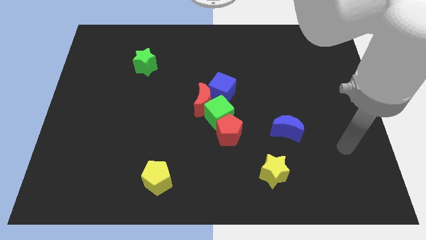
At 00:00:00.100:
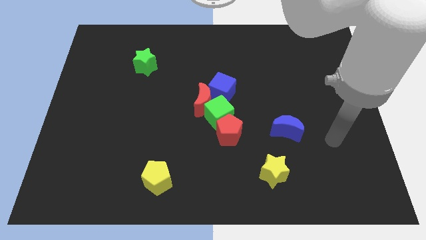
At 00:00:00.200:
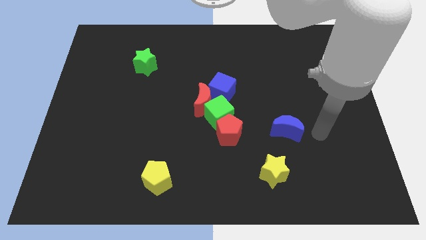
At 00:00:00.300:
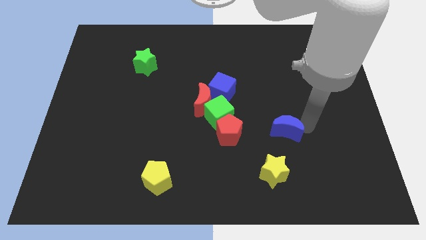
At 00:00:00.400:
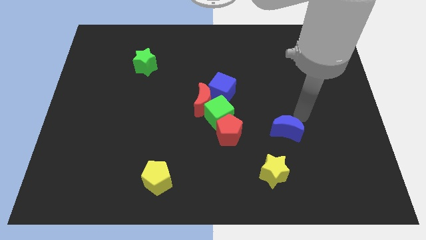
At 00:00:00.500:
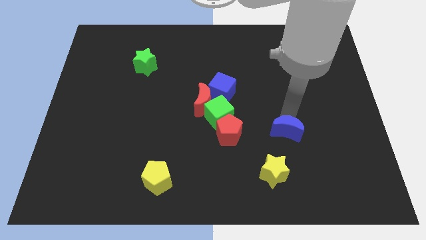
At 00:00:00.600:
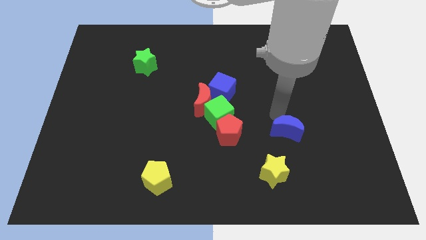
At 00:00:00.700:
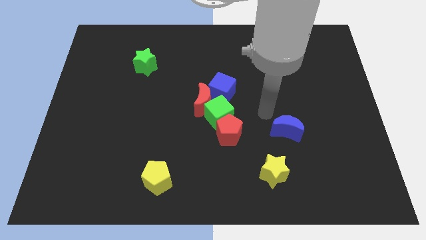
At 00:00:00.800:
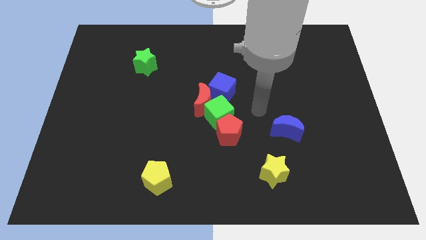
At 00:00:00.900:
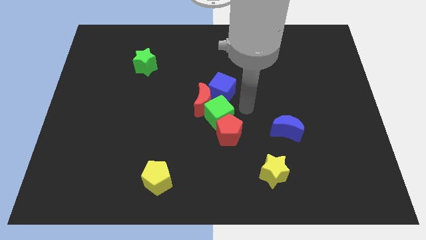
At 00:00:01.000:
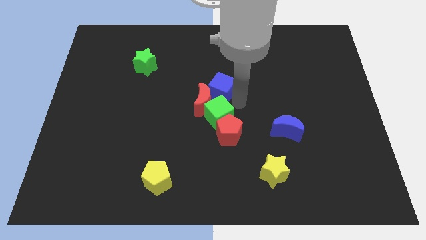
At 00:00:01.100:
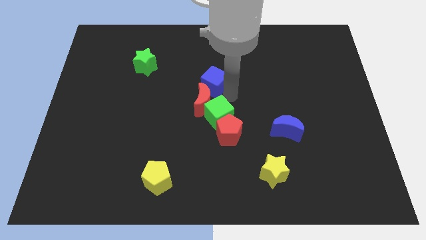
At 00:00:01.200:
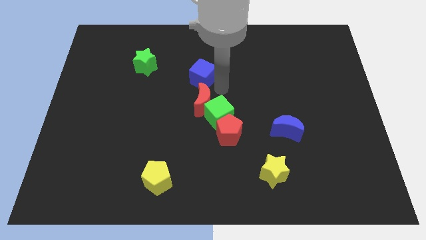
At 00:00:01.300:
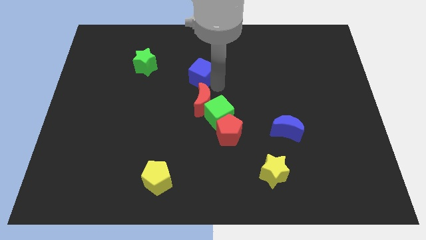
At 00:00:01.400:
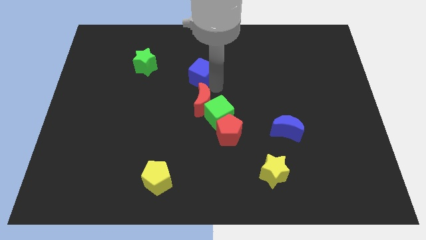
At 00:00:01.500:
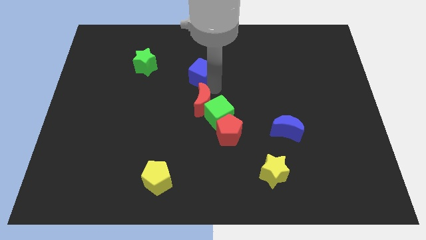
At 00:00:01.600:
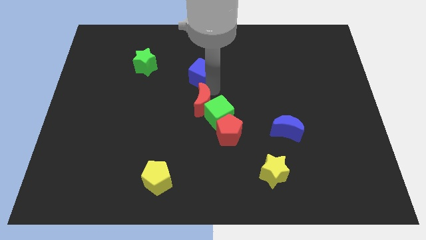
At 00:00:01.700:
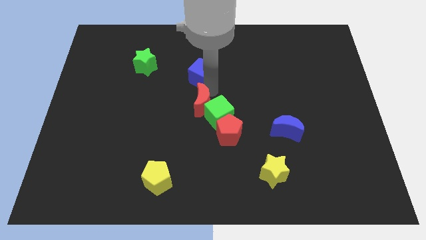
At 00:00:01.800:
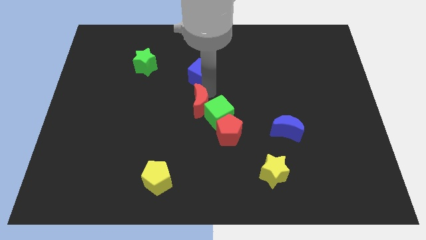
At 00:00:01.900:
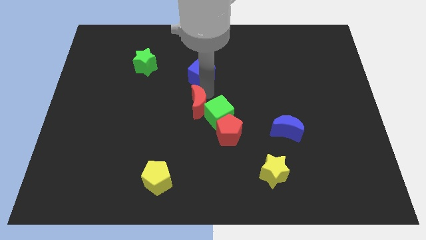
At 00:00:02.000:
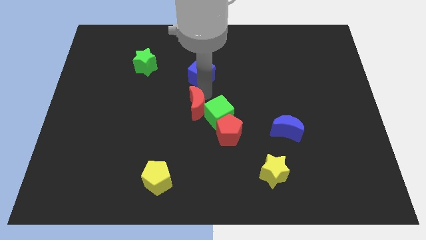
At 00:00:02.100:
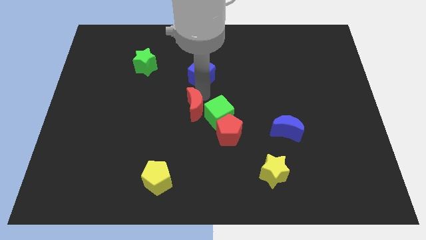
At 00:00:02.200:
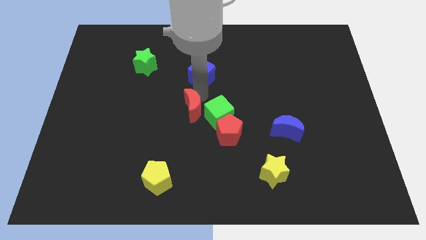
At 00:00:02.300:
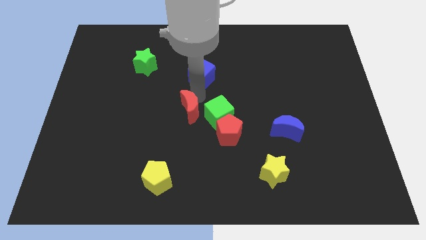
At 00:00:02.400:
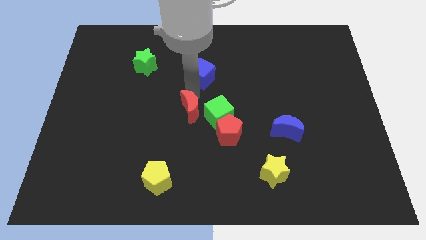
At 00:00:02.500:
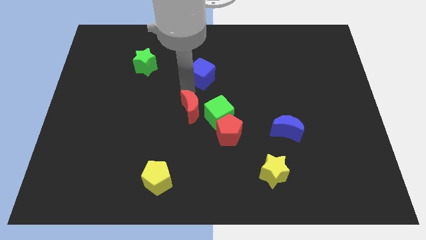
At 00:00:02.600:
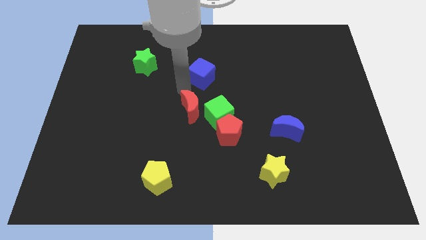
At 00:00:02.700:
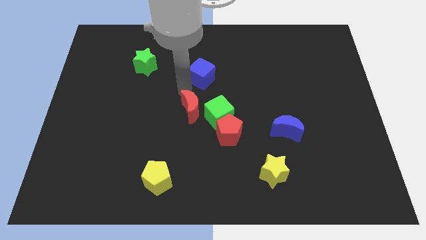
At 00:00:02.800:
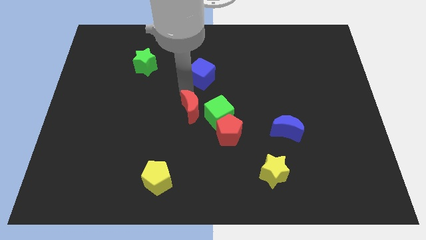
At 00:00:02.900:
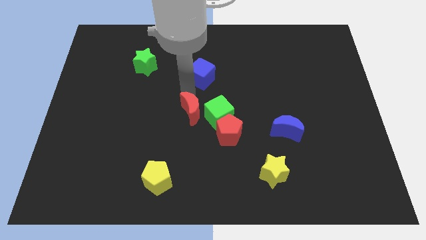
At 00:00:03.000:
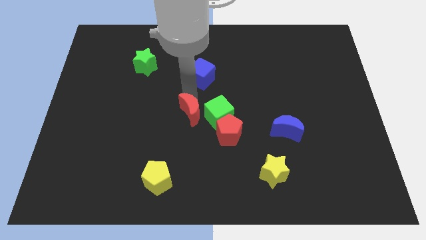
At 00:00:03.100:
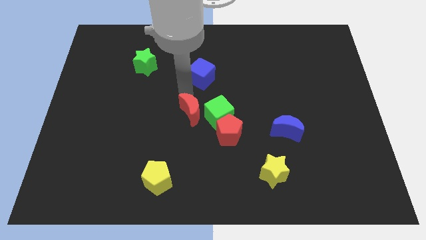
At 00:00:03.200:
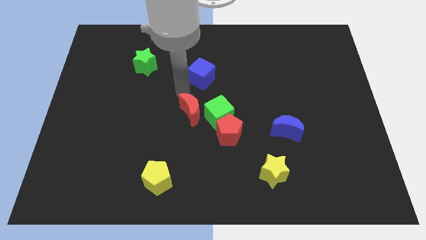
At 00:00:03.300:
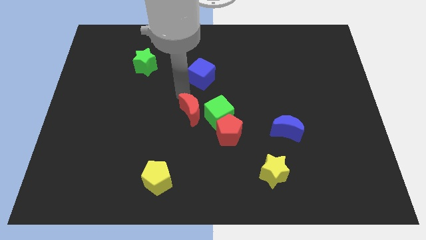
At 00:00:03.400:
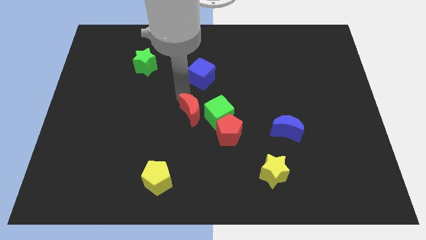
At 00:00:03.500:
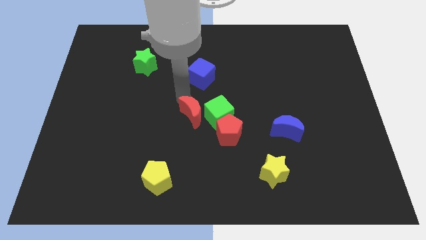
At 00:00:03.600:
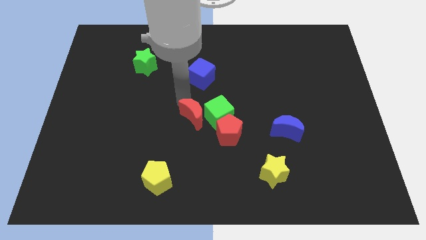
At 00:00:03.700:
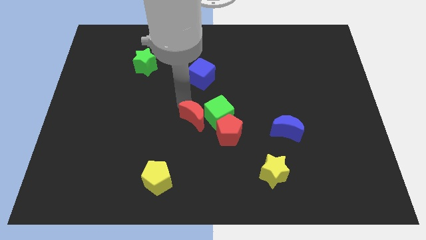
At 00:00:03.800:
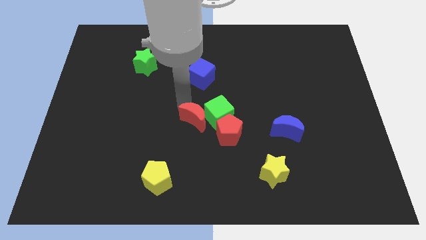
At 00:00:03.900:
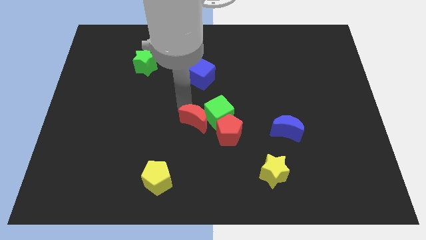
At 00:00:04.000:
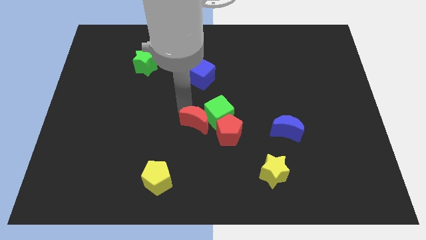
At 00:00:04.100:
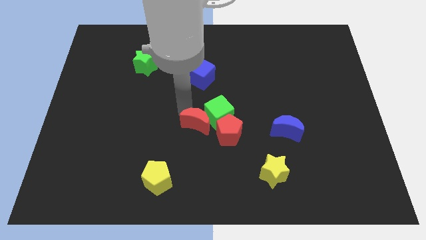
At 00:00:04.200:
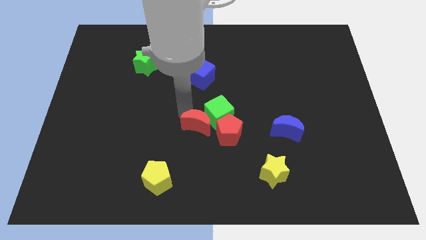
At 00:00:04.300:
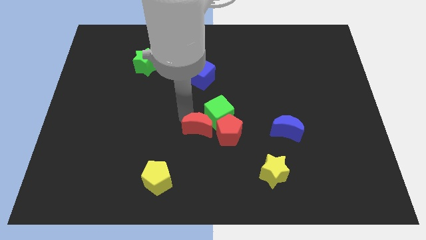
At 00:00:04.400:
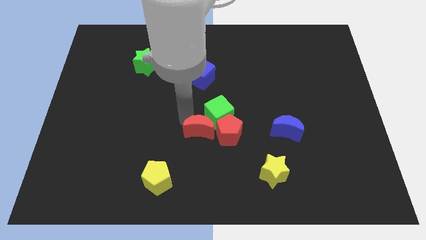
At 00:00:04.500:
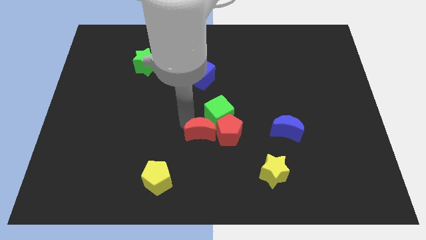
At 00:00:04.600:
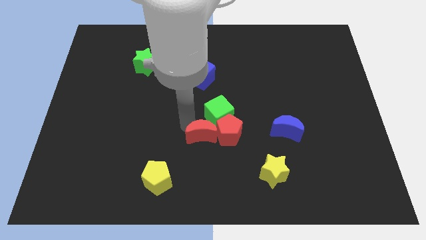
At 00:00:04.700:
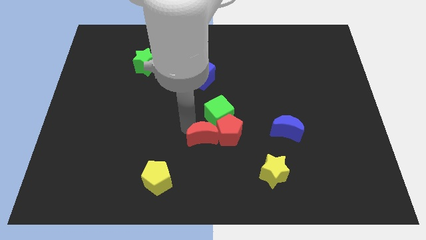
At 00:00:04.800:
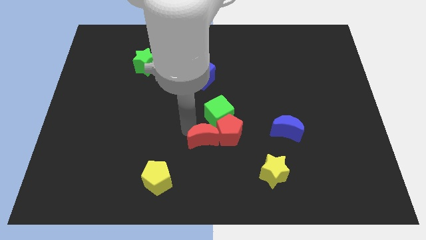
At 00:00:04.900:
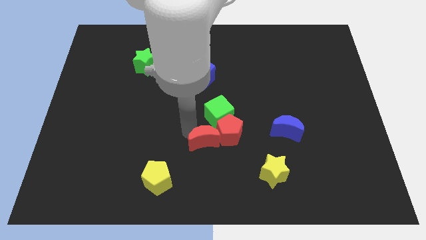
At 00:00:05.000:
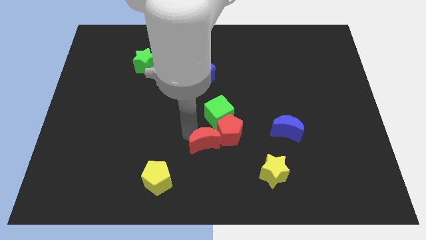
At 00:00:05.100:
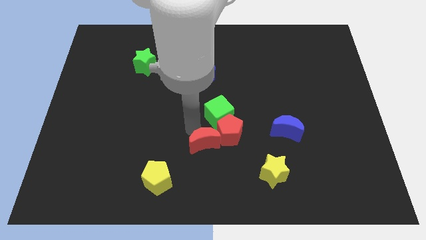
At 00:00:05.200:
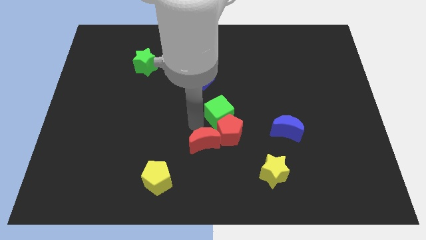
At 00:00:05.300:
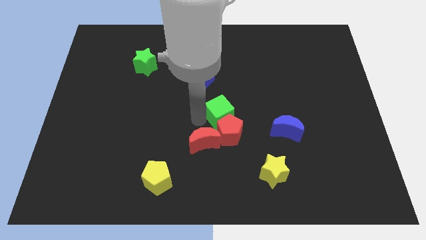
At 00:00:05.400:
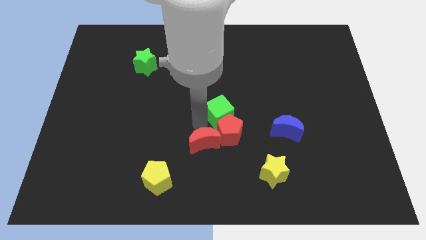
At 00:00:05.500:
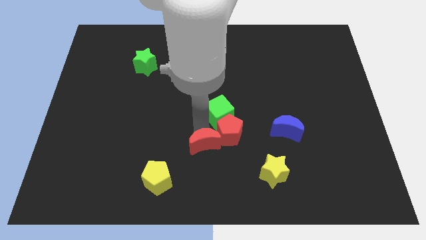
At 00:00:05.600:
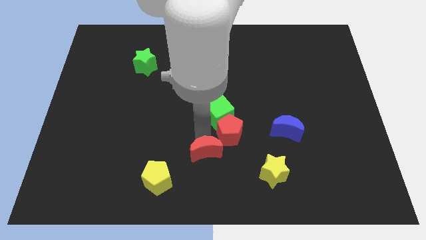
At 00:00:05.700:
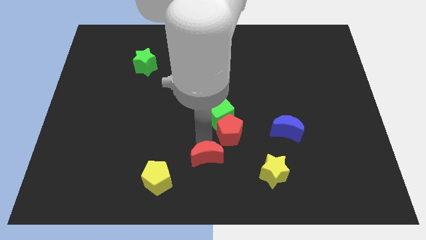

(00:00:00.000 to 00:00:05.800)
slide the red moon to the bottom side

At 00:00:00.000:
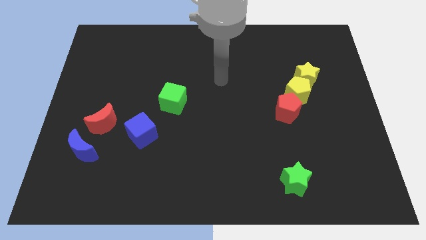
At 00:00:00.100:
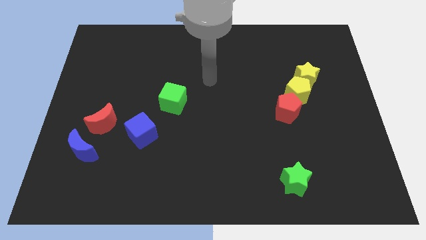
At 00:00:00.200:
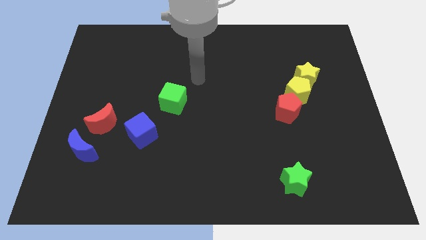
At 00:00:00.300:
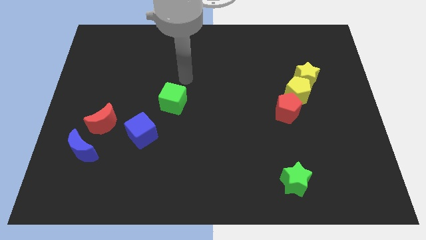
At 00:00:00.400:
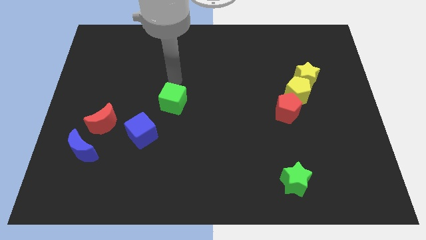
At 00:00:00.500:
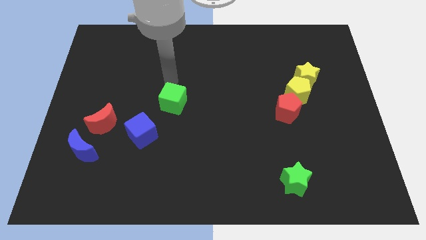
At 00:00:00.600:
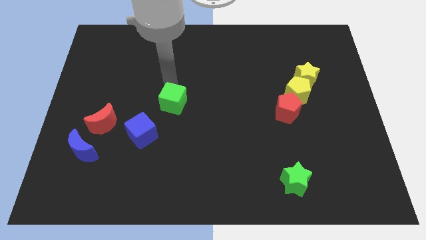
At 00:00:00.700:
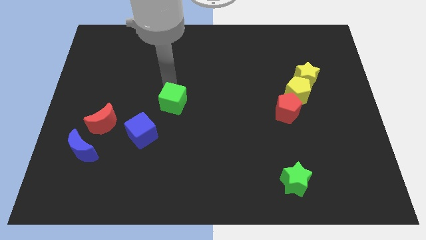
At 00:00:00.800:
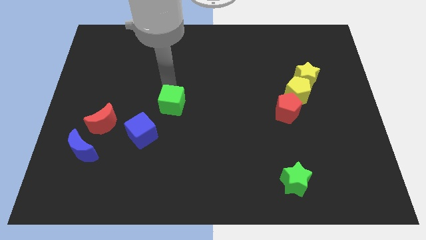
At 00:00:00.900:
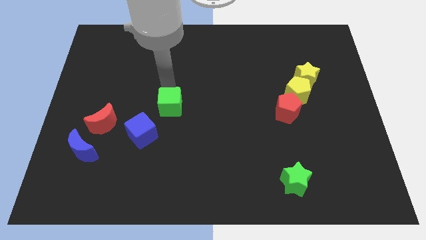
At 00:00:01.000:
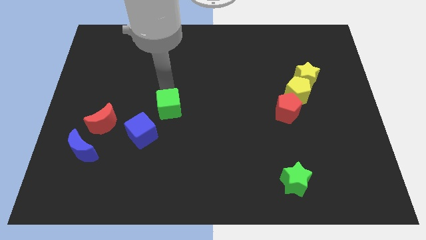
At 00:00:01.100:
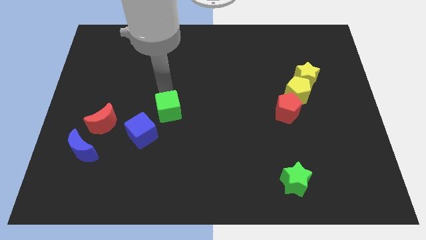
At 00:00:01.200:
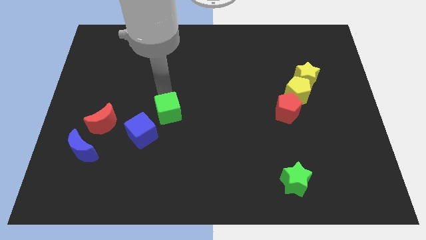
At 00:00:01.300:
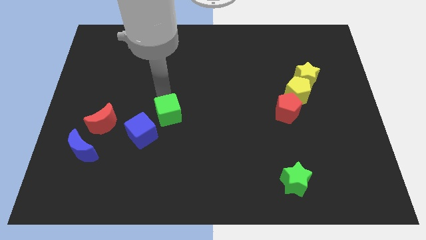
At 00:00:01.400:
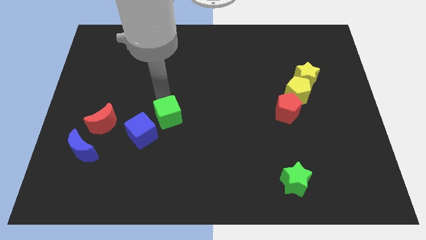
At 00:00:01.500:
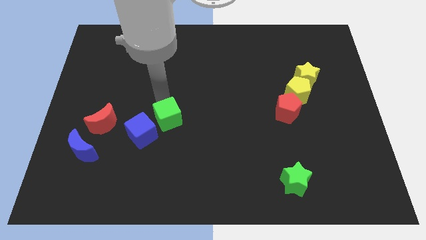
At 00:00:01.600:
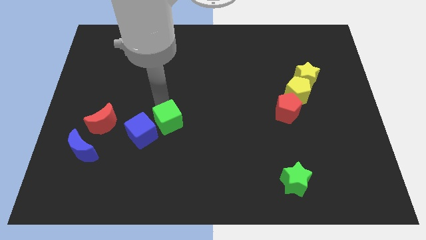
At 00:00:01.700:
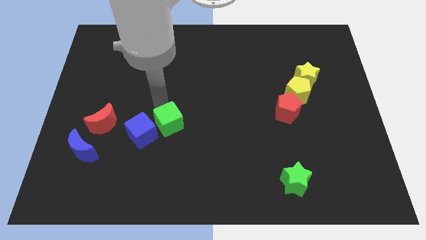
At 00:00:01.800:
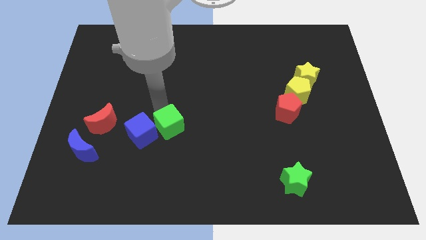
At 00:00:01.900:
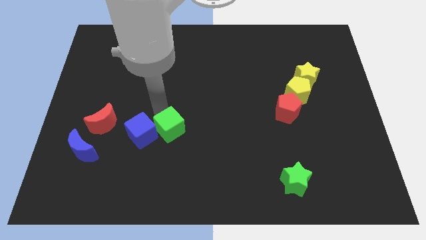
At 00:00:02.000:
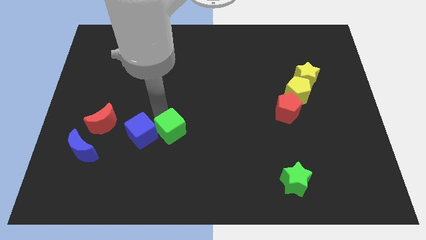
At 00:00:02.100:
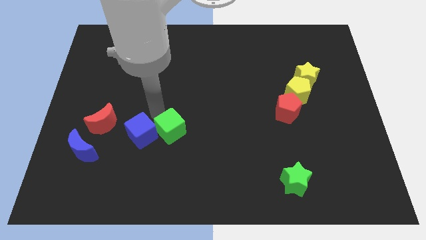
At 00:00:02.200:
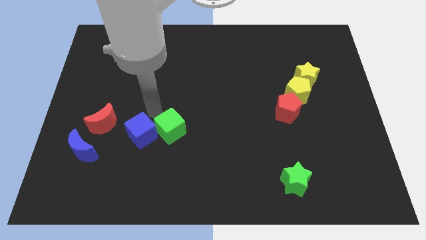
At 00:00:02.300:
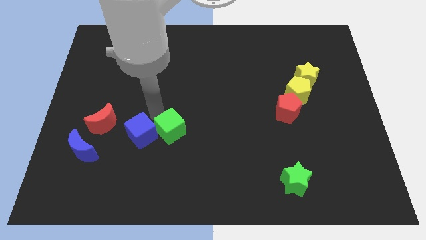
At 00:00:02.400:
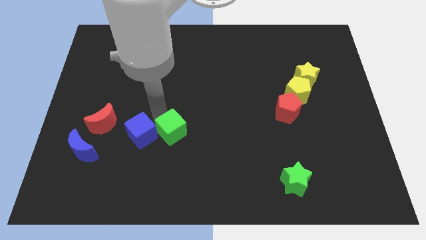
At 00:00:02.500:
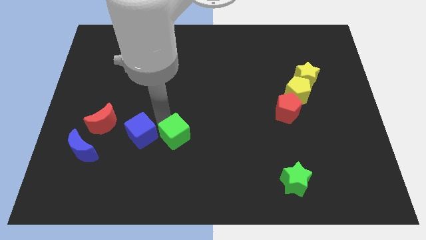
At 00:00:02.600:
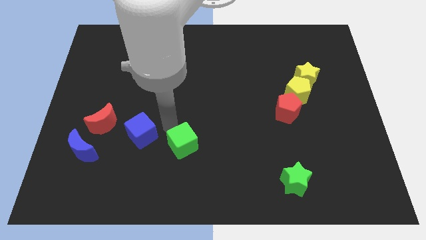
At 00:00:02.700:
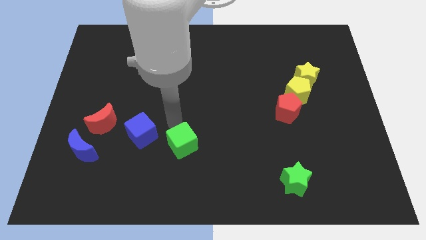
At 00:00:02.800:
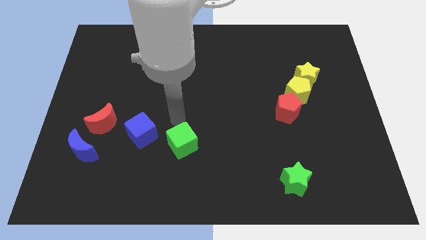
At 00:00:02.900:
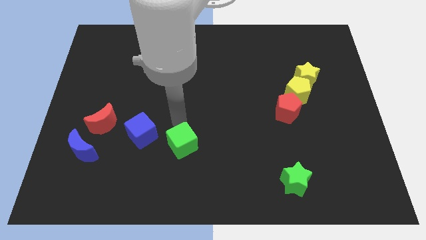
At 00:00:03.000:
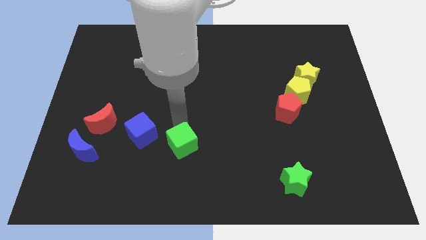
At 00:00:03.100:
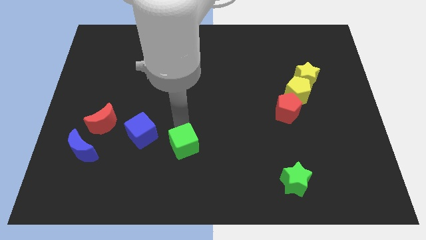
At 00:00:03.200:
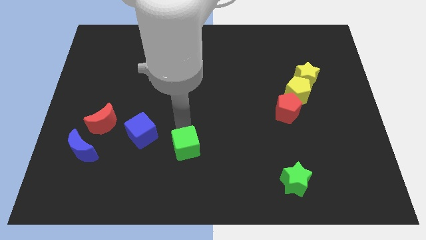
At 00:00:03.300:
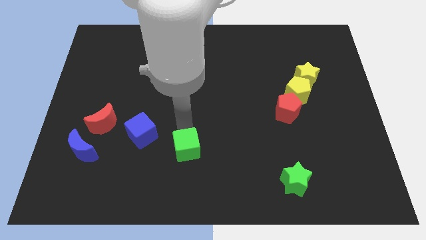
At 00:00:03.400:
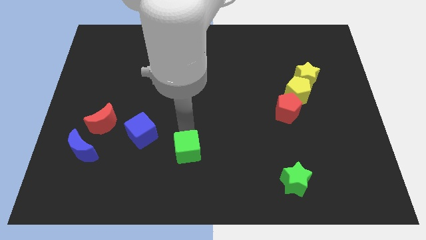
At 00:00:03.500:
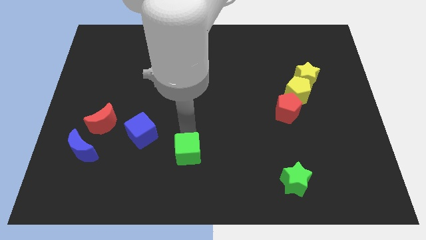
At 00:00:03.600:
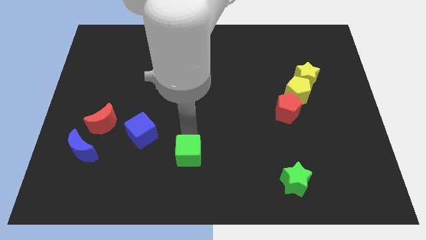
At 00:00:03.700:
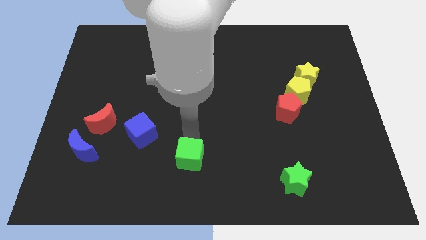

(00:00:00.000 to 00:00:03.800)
put the green cube to the bottom
